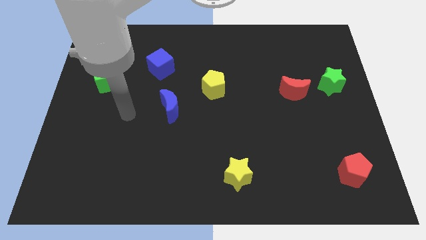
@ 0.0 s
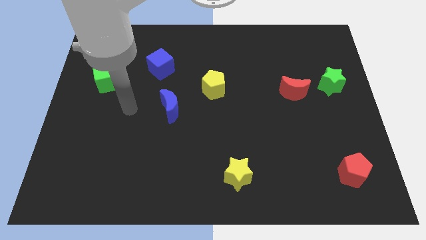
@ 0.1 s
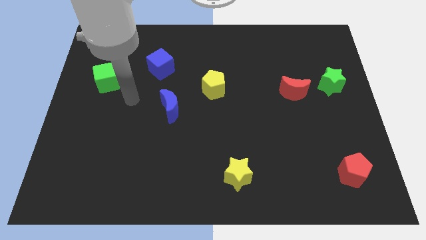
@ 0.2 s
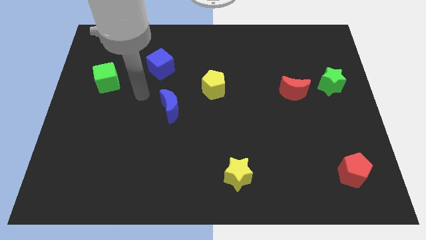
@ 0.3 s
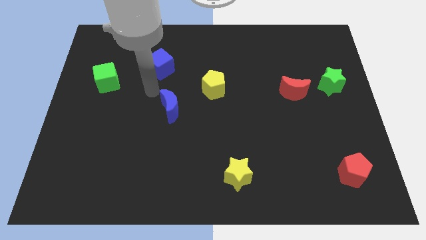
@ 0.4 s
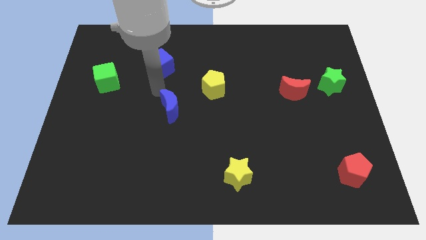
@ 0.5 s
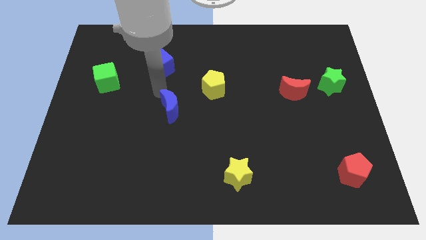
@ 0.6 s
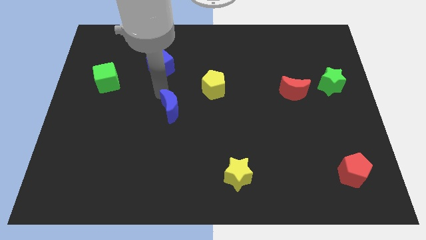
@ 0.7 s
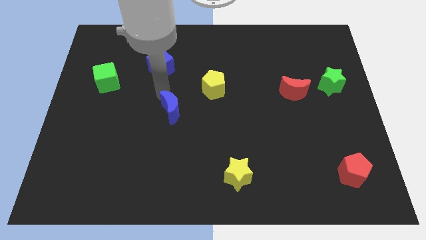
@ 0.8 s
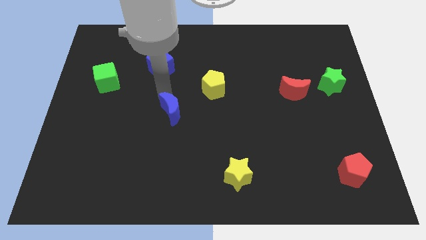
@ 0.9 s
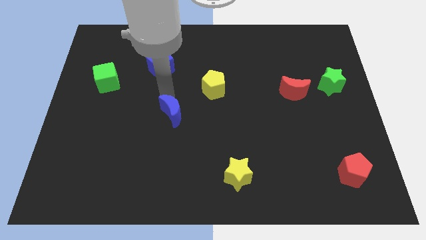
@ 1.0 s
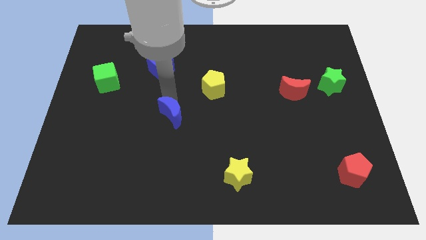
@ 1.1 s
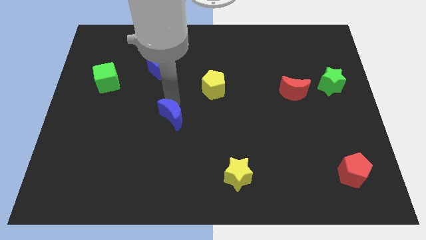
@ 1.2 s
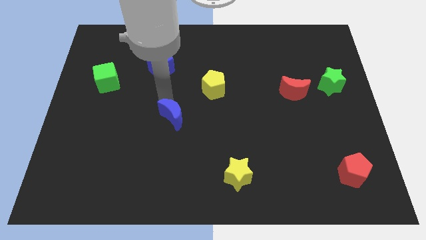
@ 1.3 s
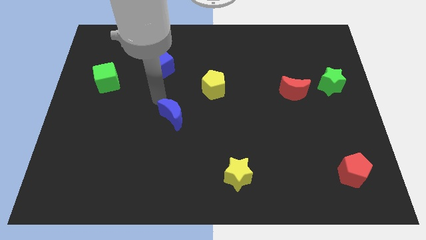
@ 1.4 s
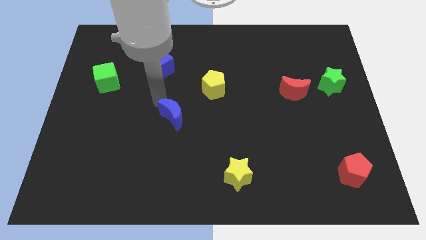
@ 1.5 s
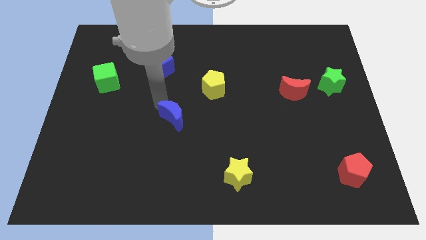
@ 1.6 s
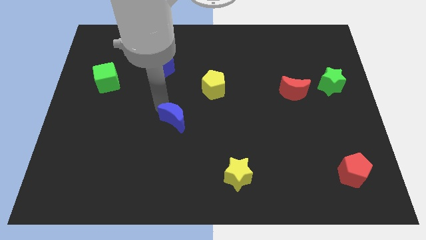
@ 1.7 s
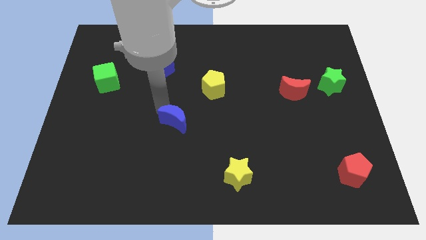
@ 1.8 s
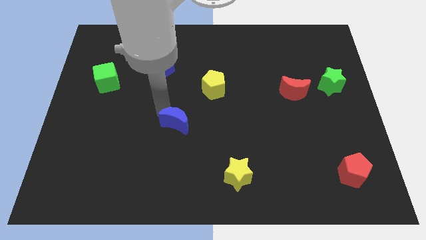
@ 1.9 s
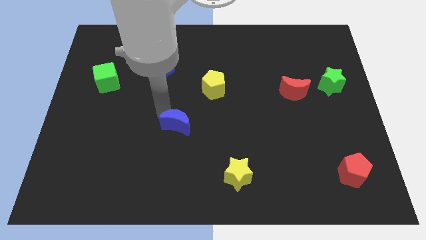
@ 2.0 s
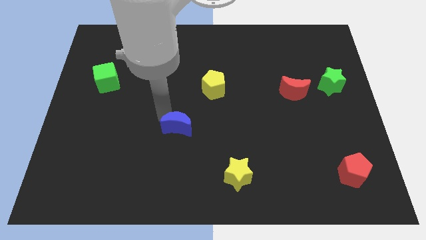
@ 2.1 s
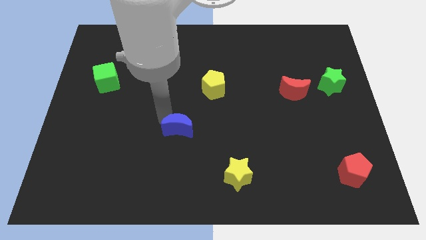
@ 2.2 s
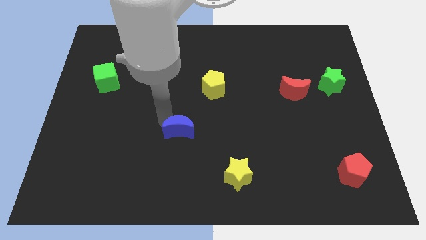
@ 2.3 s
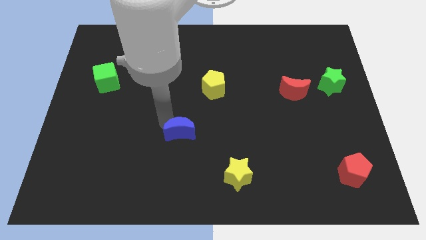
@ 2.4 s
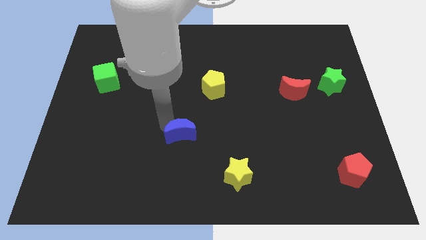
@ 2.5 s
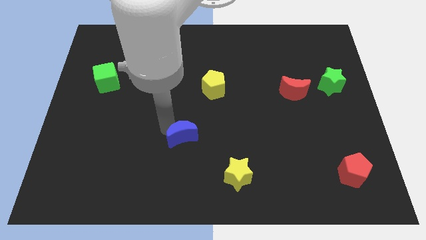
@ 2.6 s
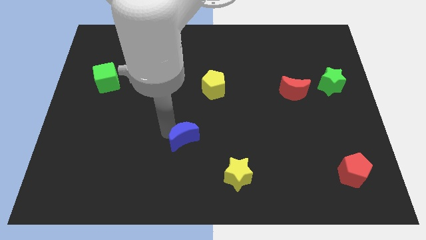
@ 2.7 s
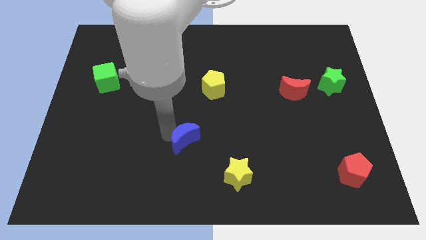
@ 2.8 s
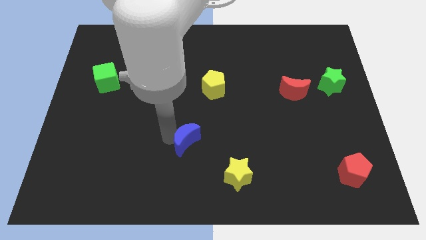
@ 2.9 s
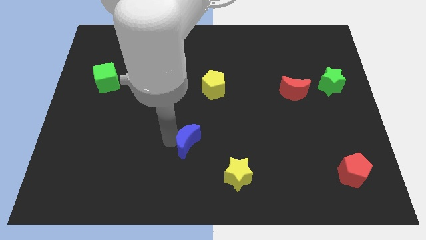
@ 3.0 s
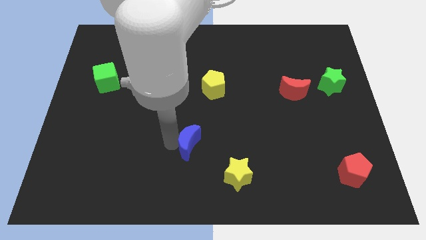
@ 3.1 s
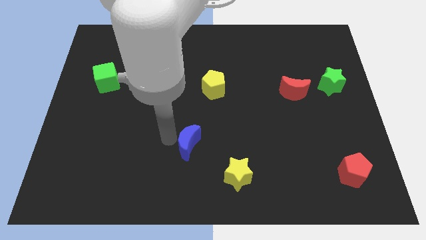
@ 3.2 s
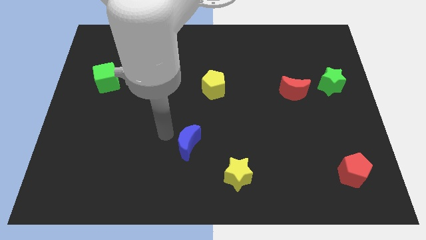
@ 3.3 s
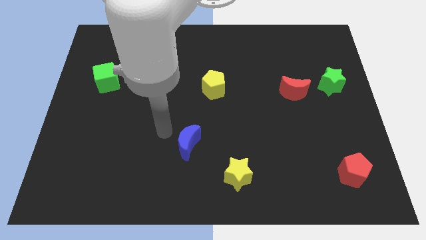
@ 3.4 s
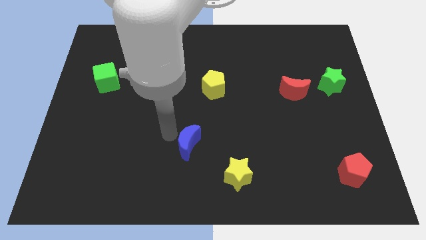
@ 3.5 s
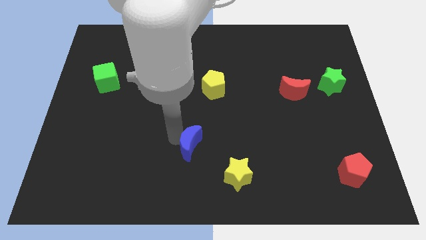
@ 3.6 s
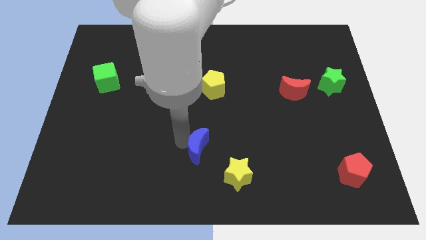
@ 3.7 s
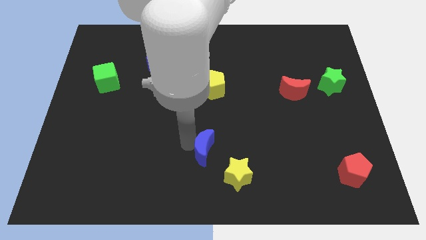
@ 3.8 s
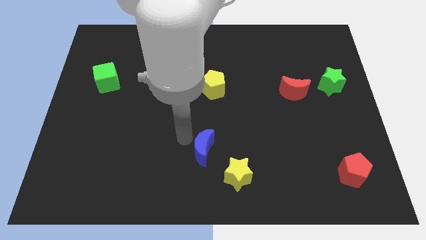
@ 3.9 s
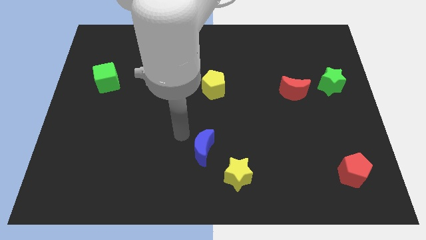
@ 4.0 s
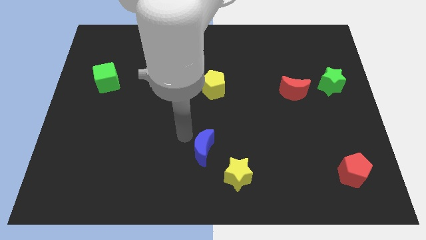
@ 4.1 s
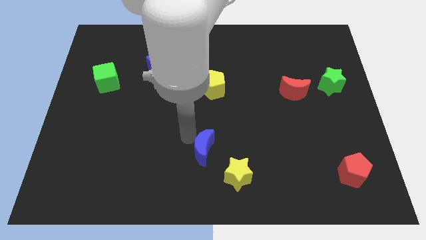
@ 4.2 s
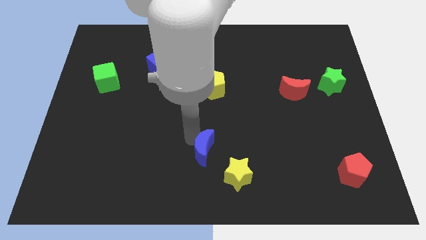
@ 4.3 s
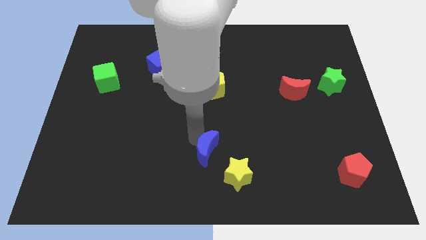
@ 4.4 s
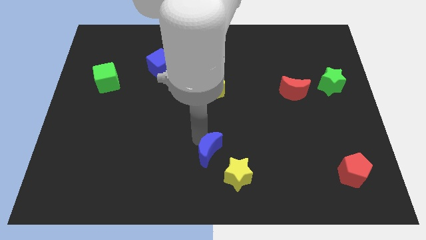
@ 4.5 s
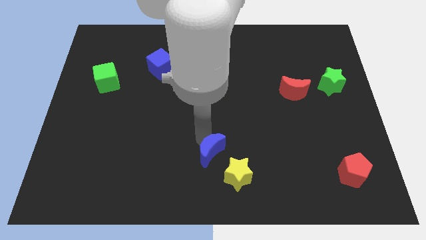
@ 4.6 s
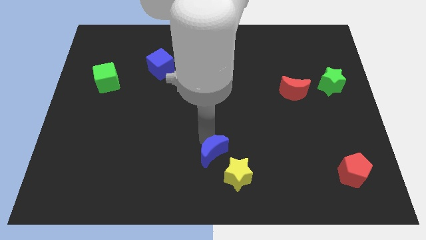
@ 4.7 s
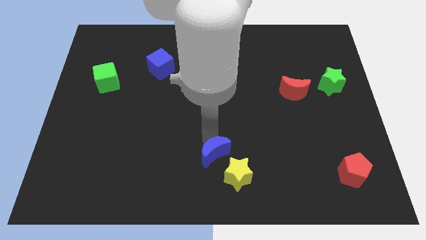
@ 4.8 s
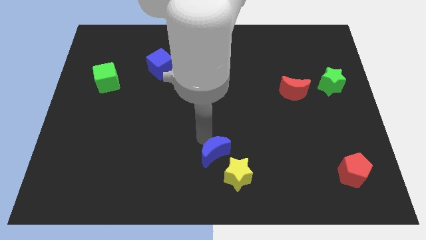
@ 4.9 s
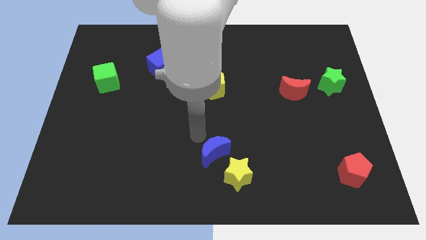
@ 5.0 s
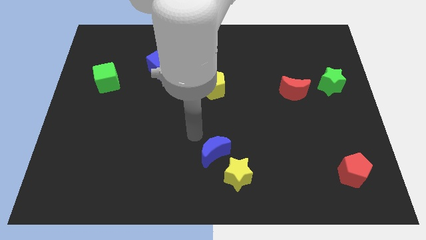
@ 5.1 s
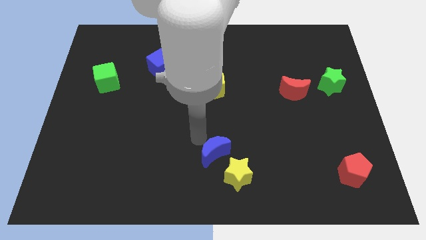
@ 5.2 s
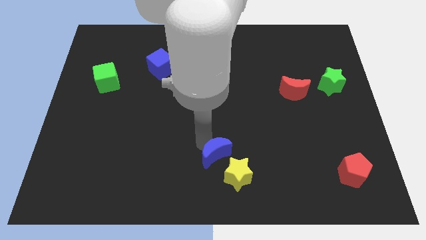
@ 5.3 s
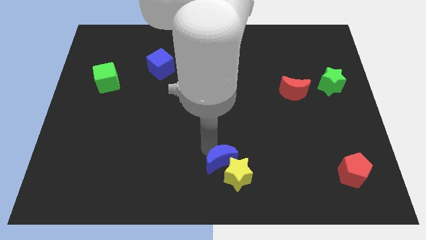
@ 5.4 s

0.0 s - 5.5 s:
put the blue moon next to the yellow star

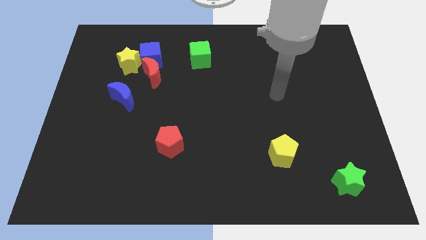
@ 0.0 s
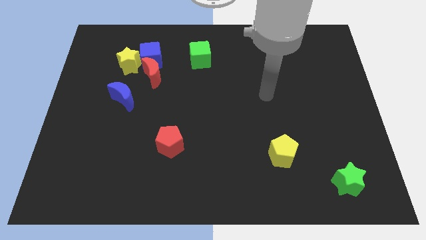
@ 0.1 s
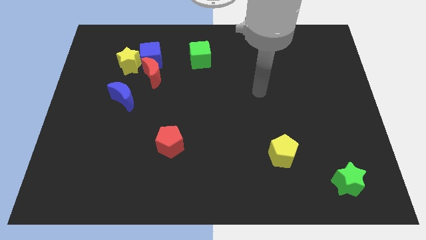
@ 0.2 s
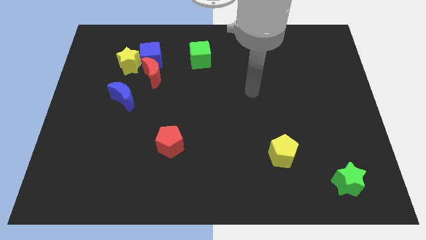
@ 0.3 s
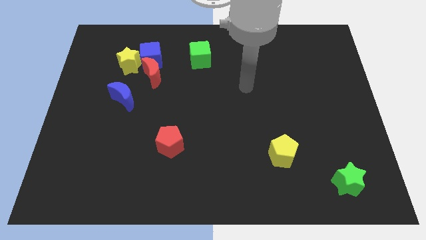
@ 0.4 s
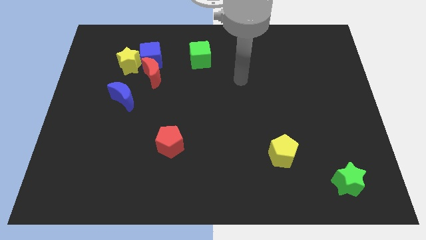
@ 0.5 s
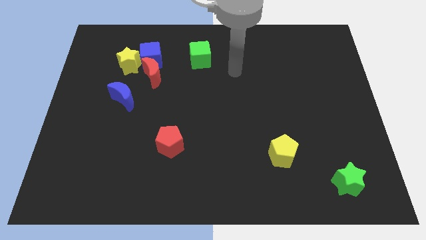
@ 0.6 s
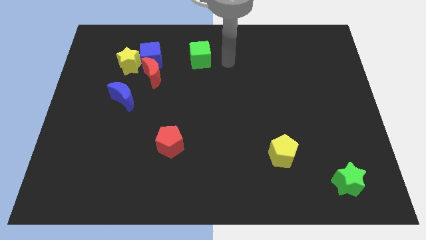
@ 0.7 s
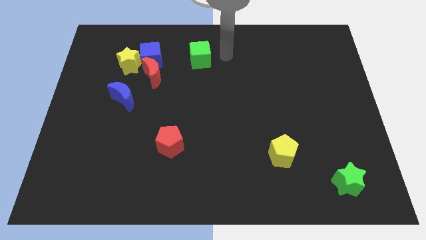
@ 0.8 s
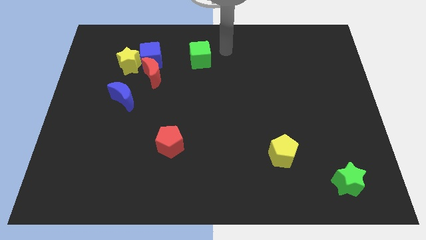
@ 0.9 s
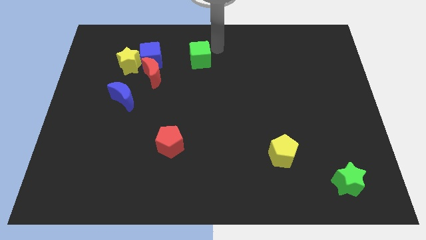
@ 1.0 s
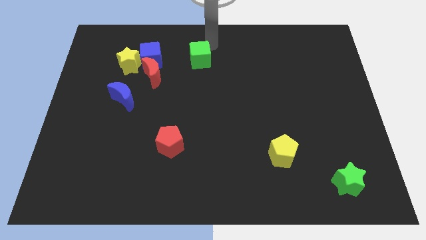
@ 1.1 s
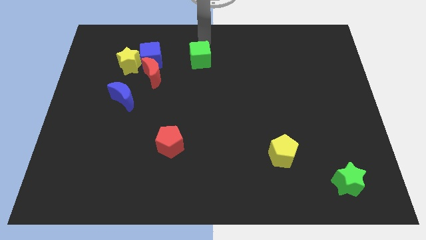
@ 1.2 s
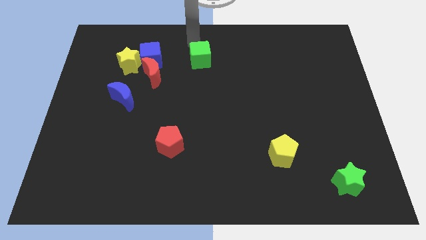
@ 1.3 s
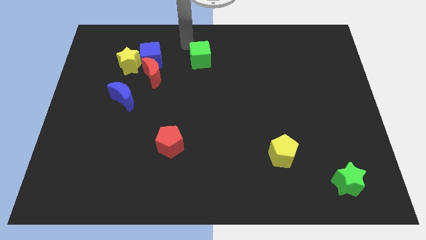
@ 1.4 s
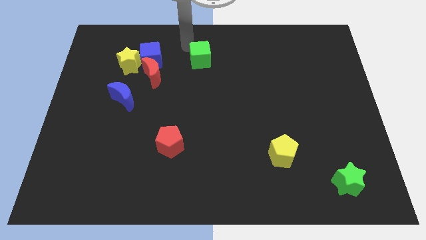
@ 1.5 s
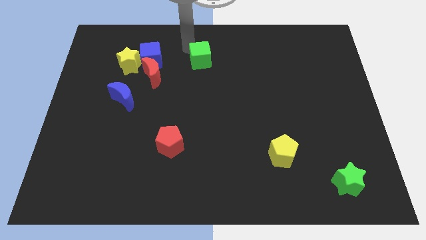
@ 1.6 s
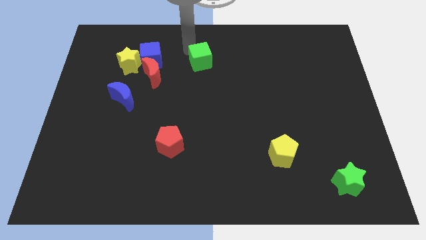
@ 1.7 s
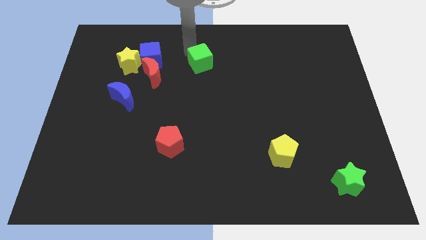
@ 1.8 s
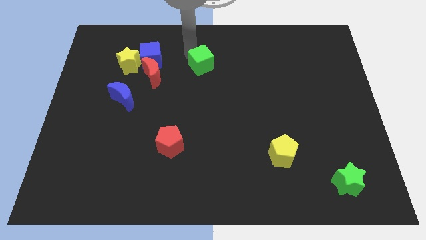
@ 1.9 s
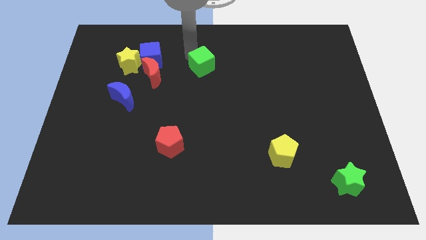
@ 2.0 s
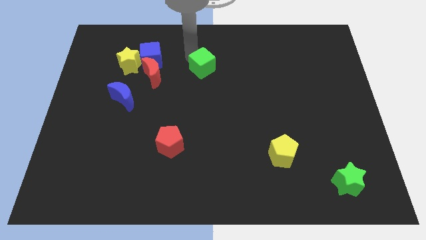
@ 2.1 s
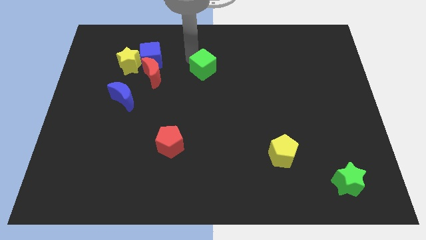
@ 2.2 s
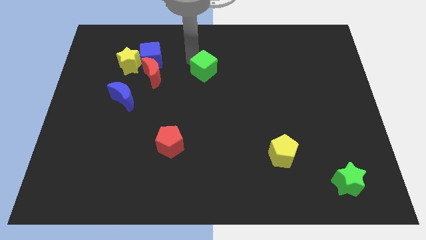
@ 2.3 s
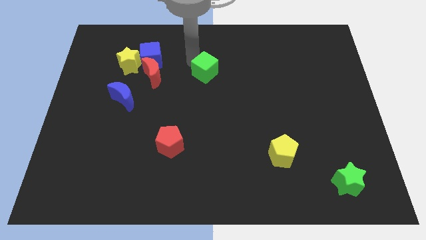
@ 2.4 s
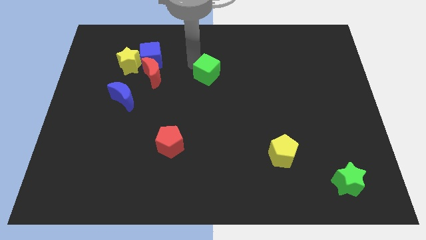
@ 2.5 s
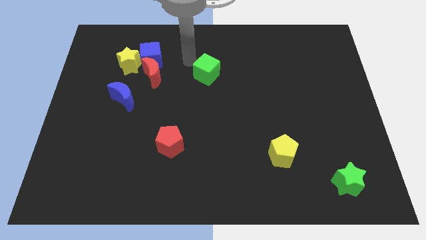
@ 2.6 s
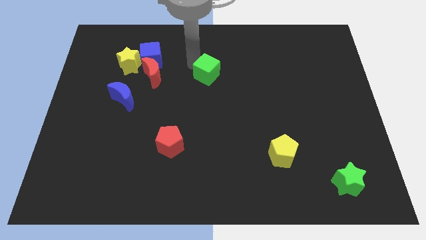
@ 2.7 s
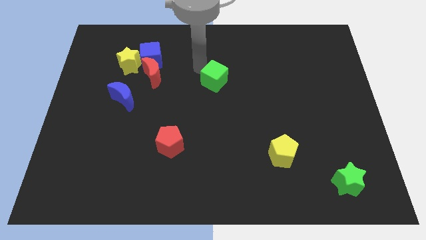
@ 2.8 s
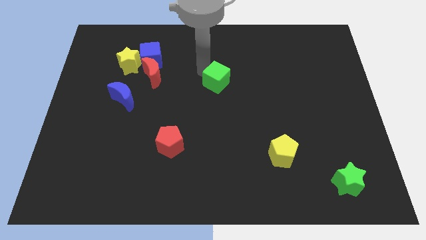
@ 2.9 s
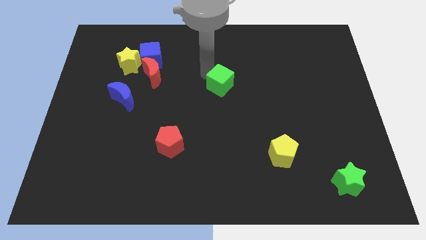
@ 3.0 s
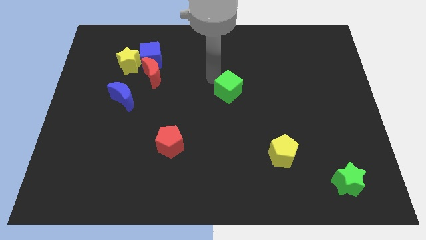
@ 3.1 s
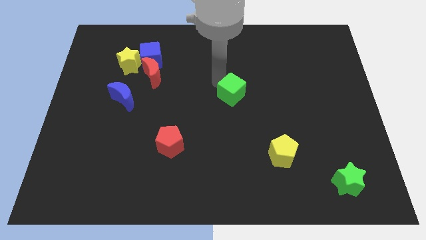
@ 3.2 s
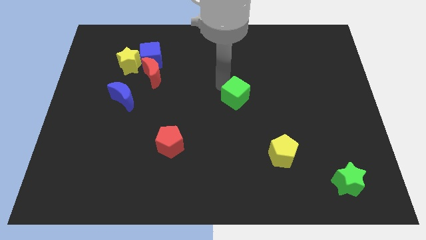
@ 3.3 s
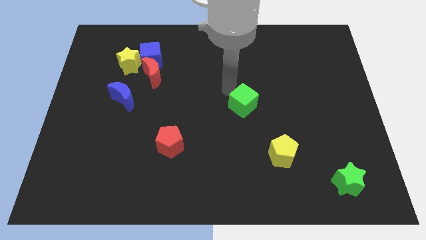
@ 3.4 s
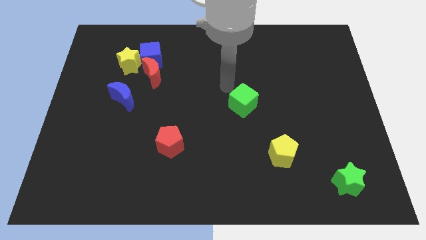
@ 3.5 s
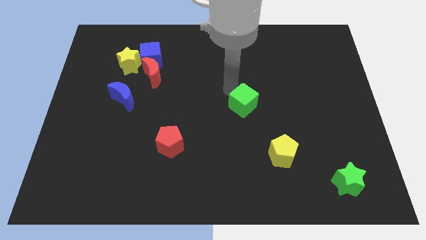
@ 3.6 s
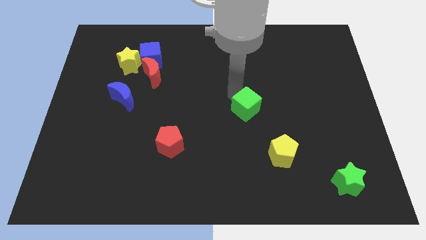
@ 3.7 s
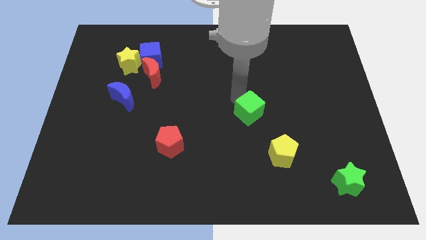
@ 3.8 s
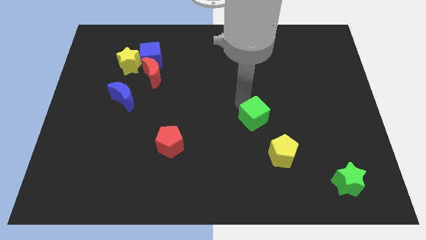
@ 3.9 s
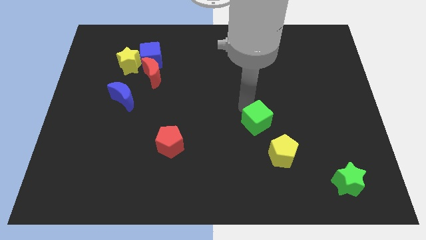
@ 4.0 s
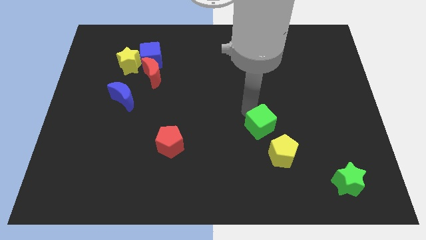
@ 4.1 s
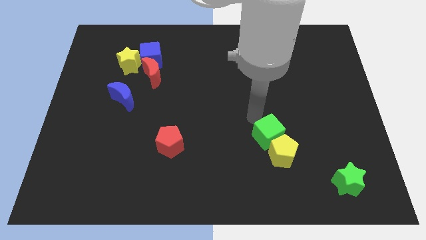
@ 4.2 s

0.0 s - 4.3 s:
push the green cube towards the yellow pentagon
